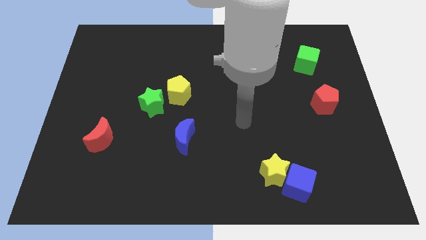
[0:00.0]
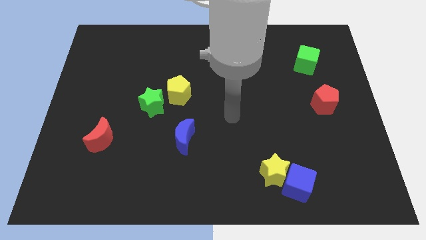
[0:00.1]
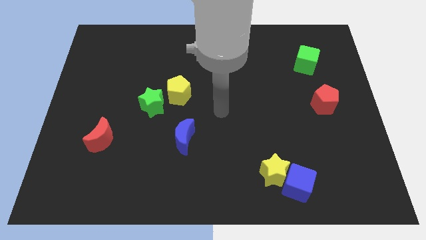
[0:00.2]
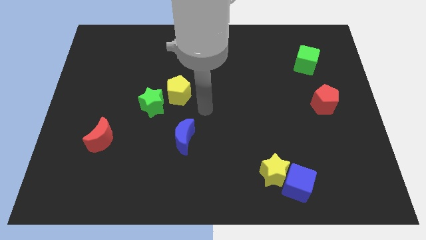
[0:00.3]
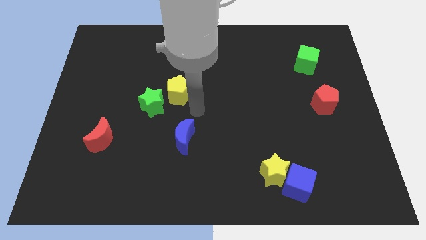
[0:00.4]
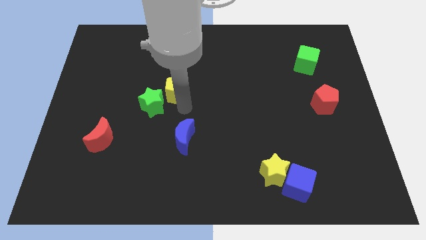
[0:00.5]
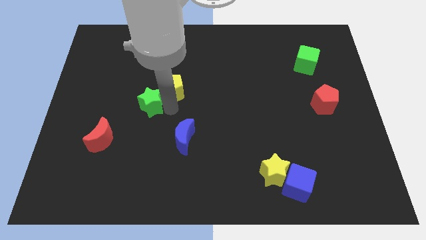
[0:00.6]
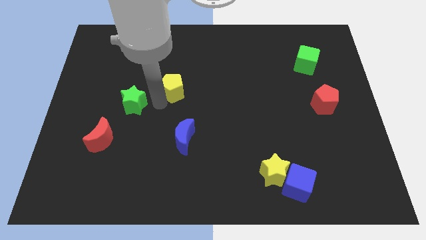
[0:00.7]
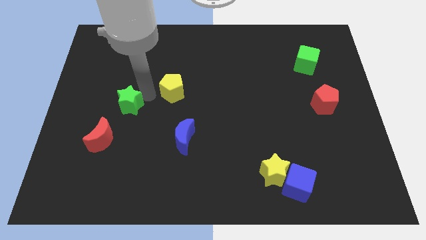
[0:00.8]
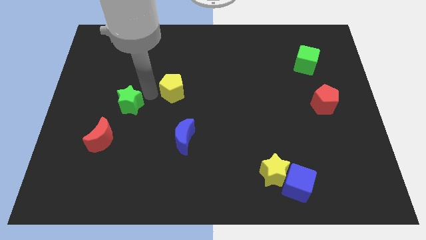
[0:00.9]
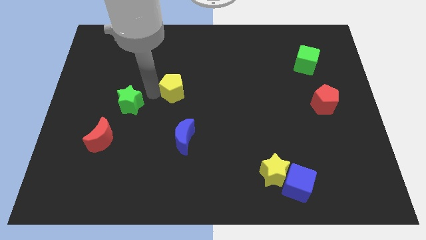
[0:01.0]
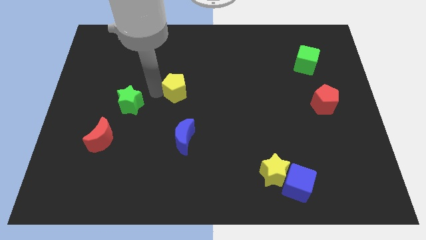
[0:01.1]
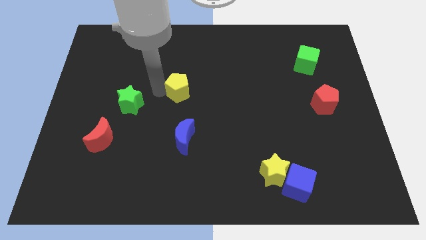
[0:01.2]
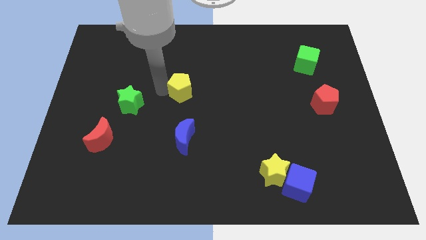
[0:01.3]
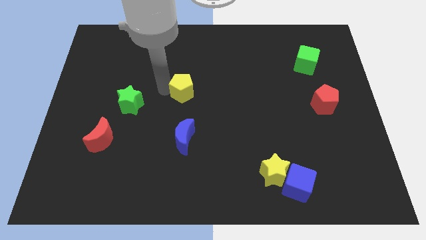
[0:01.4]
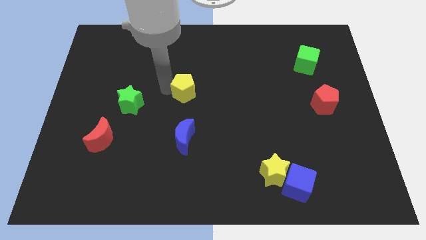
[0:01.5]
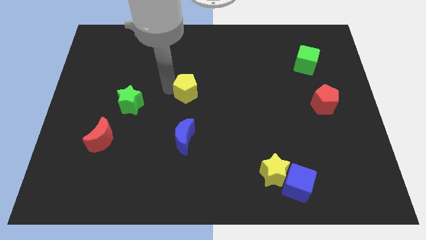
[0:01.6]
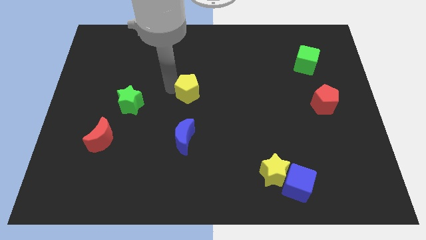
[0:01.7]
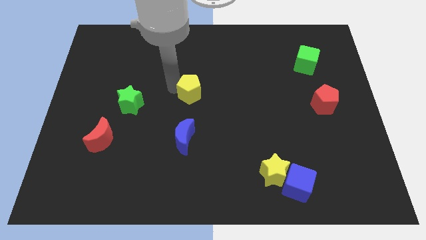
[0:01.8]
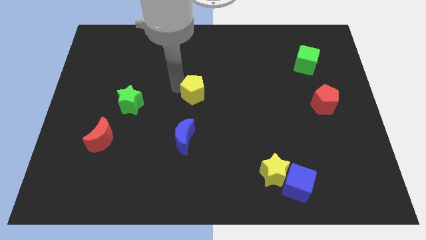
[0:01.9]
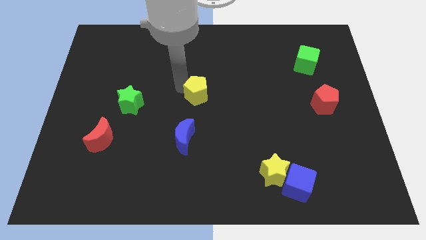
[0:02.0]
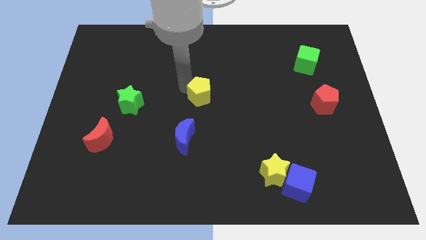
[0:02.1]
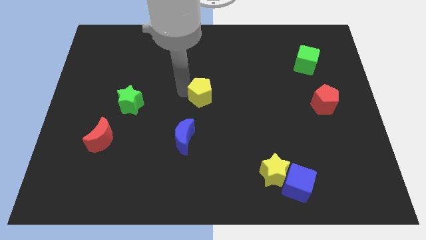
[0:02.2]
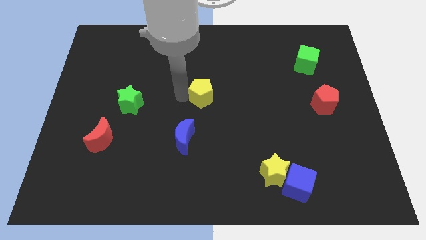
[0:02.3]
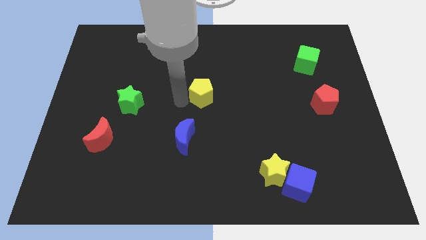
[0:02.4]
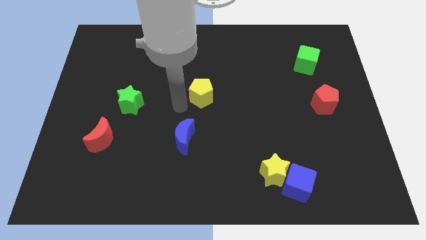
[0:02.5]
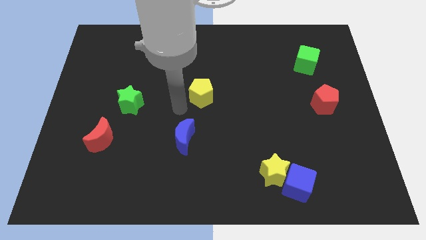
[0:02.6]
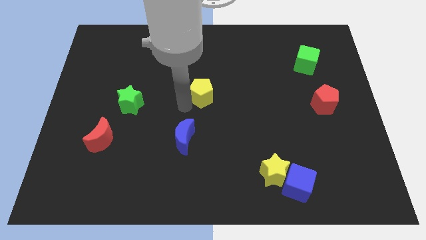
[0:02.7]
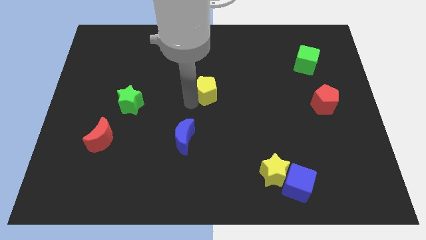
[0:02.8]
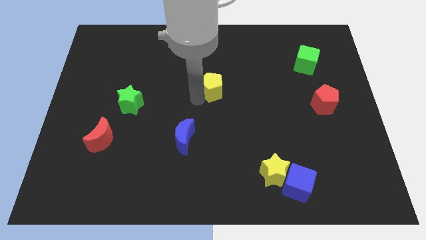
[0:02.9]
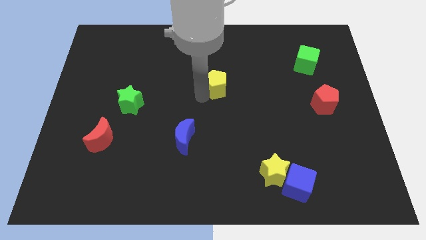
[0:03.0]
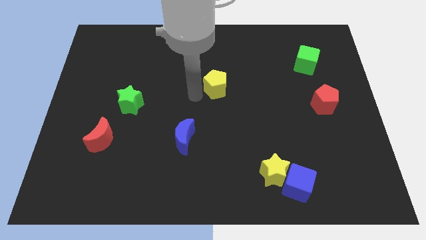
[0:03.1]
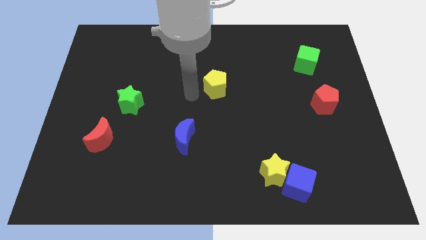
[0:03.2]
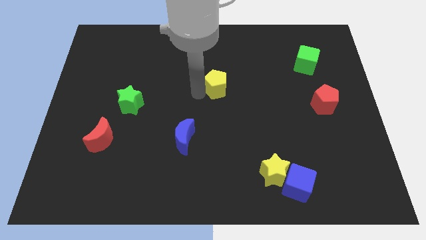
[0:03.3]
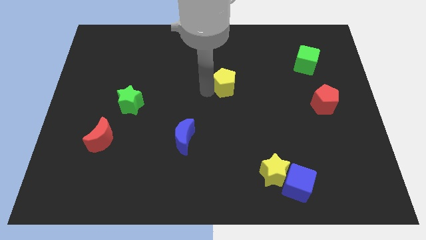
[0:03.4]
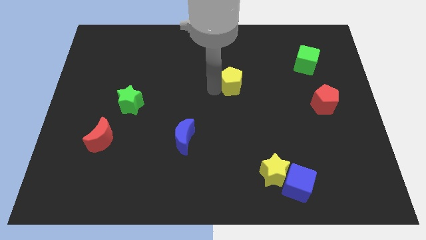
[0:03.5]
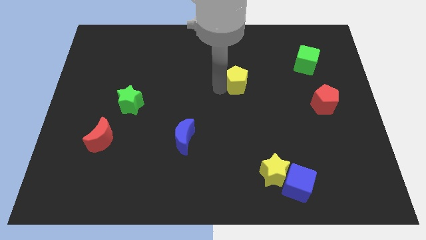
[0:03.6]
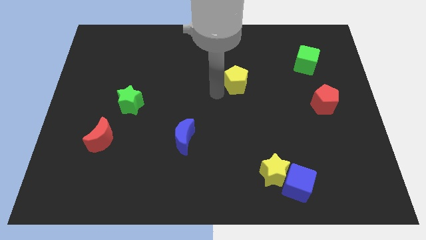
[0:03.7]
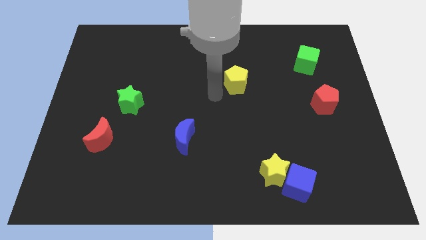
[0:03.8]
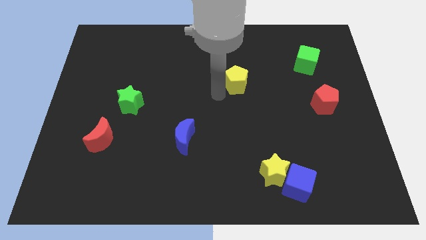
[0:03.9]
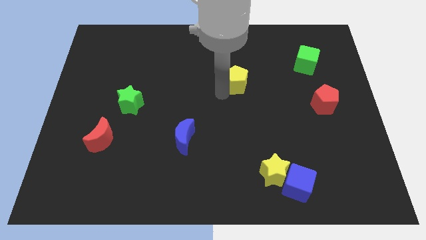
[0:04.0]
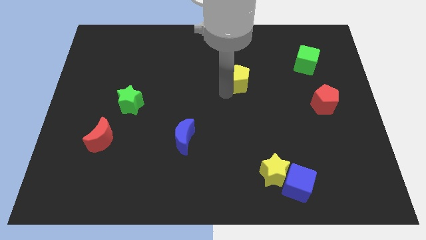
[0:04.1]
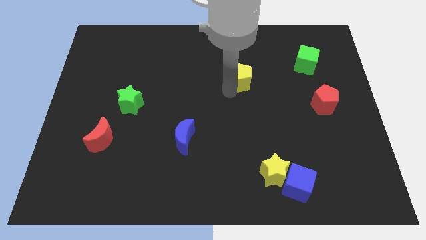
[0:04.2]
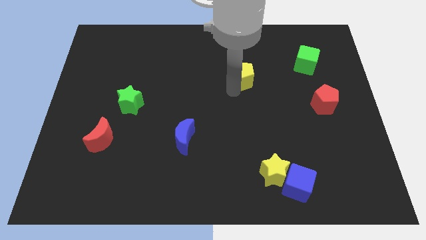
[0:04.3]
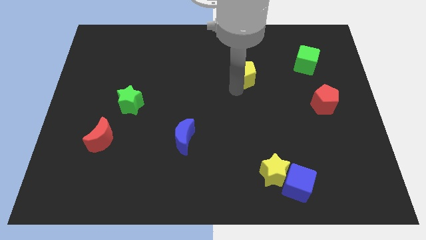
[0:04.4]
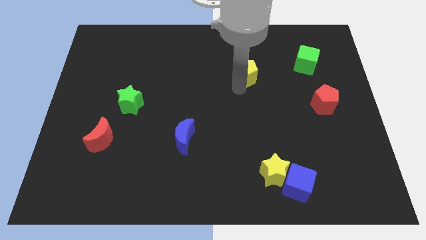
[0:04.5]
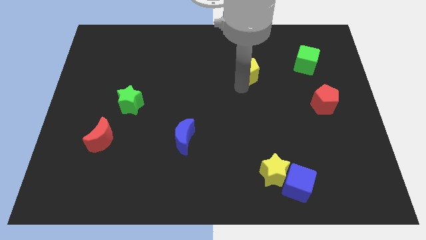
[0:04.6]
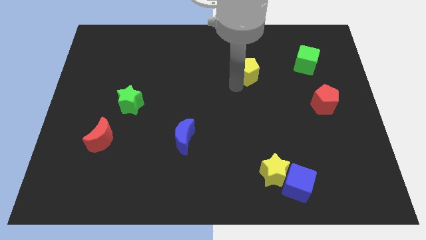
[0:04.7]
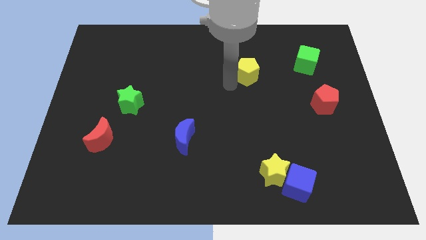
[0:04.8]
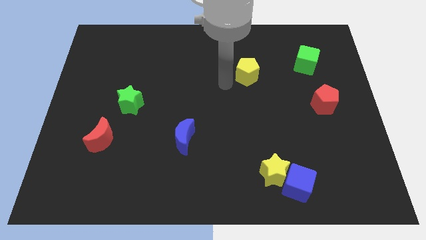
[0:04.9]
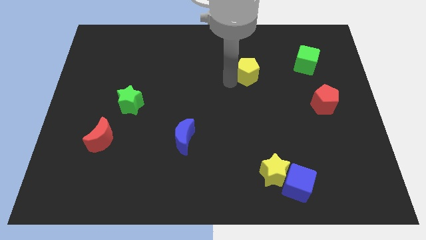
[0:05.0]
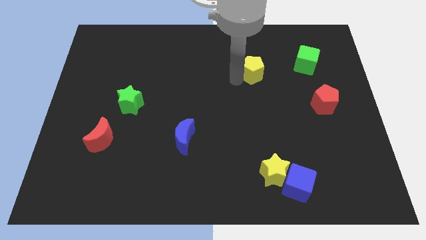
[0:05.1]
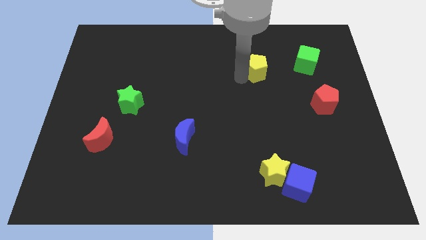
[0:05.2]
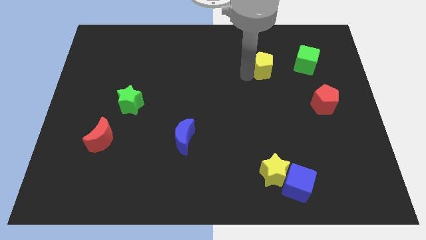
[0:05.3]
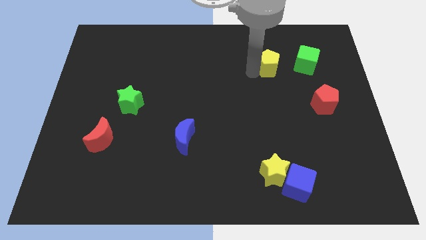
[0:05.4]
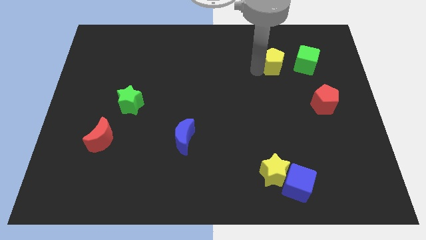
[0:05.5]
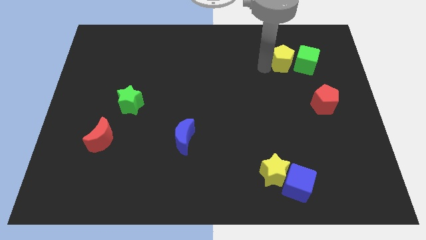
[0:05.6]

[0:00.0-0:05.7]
slide the yellow pentagon to the green cube

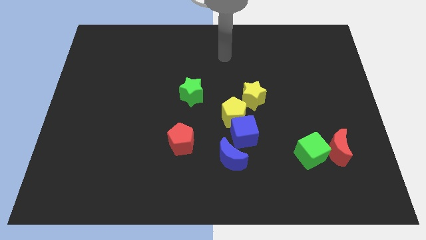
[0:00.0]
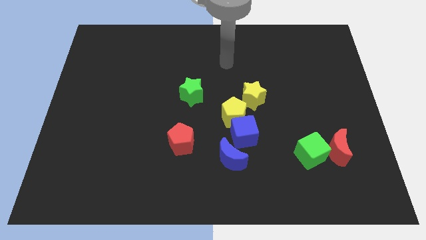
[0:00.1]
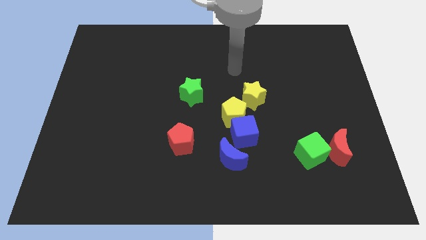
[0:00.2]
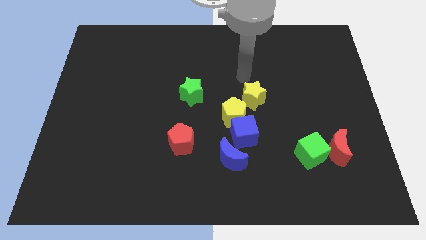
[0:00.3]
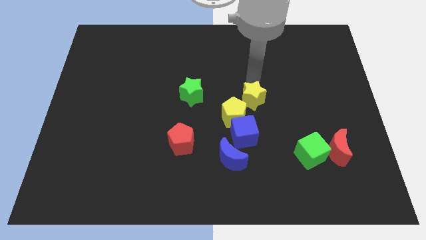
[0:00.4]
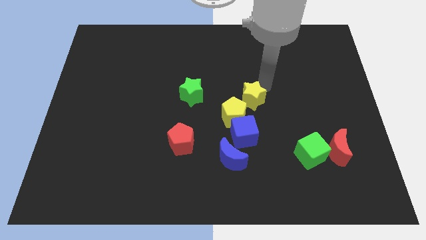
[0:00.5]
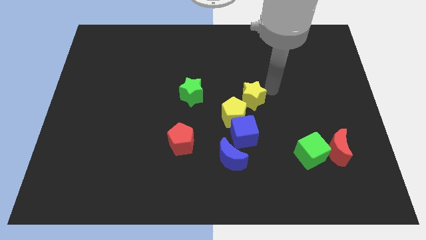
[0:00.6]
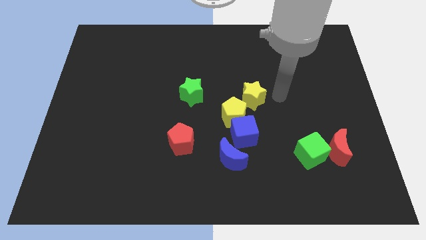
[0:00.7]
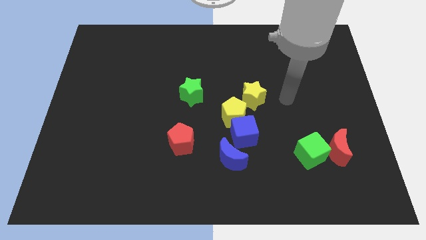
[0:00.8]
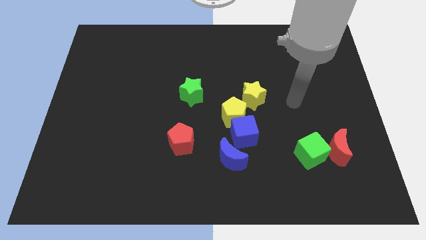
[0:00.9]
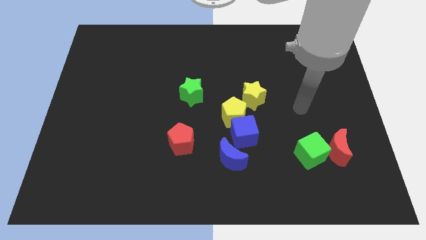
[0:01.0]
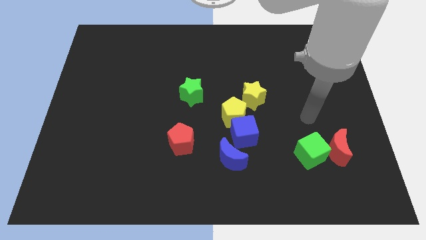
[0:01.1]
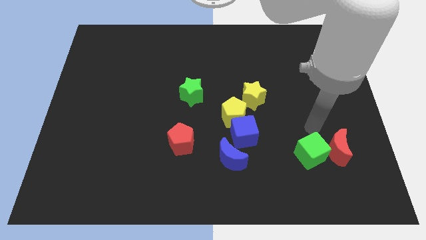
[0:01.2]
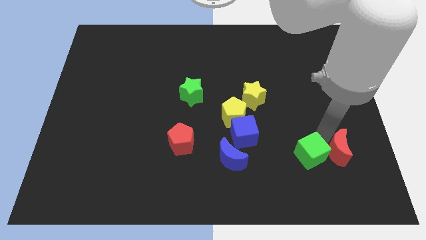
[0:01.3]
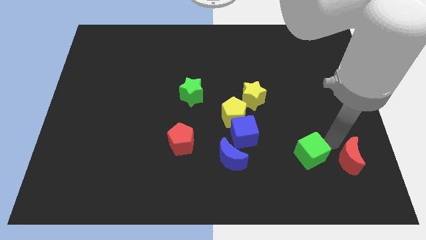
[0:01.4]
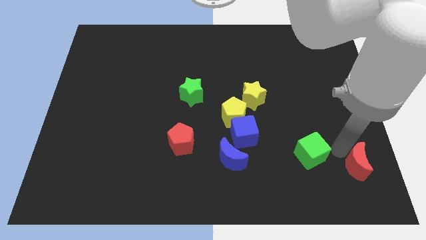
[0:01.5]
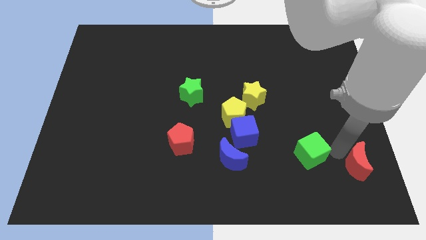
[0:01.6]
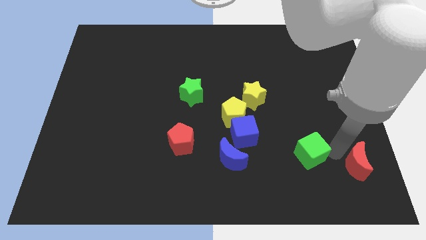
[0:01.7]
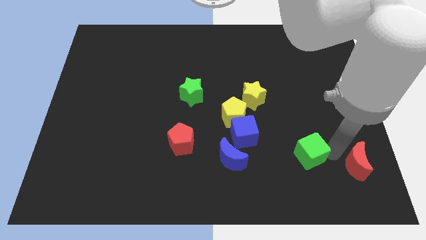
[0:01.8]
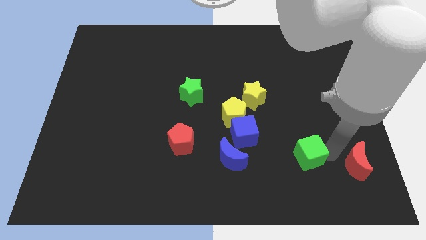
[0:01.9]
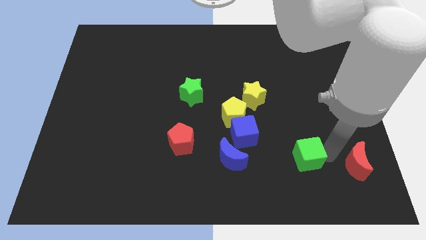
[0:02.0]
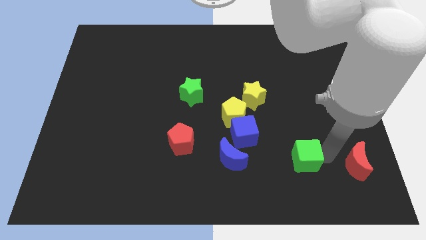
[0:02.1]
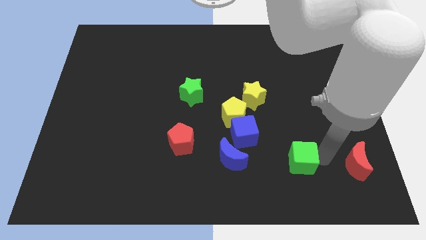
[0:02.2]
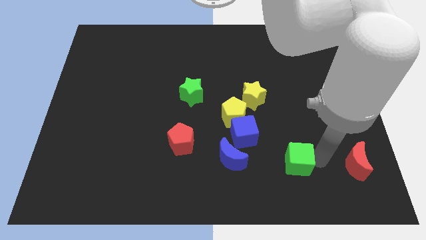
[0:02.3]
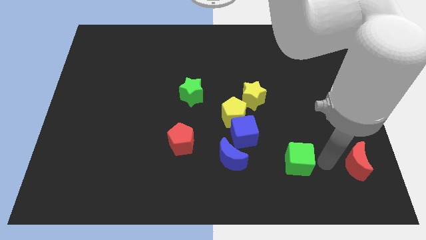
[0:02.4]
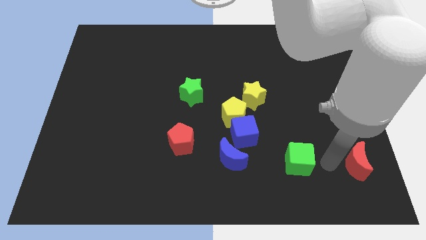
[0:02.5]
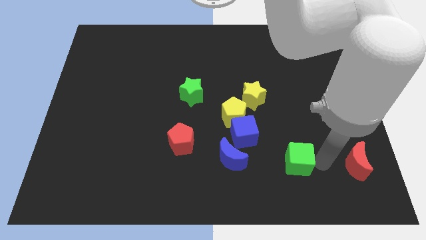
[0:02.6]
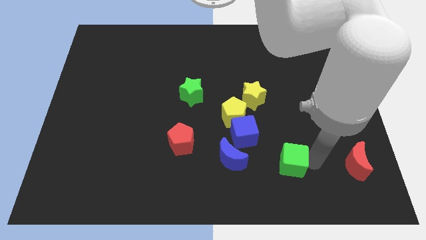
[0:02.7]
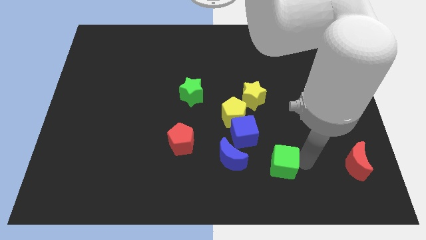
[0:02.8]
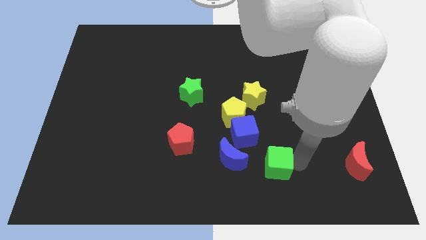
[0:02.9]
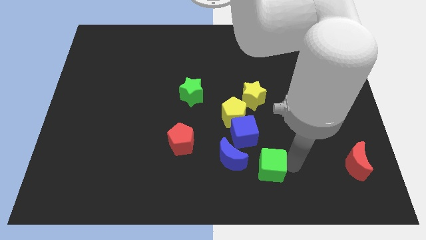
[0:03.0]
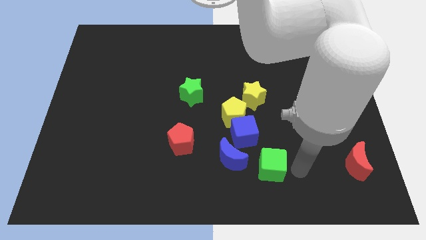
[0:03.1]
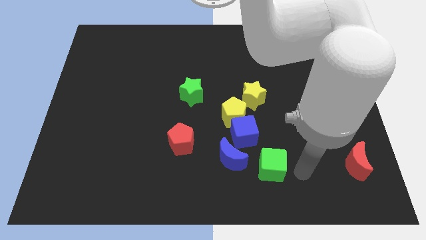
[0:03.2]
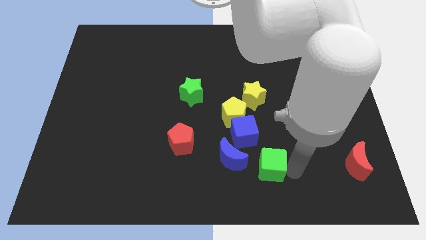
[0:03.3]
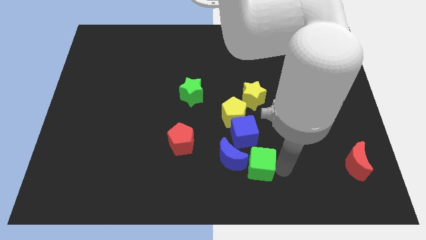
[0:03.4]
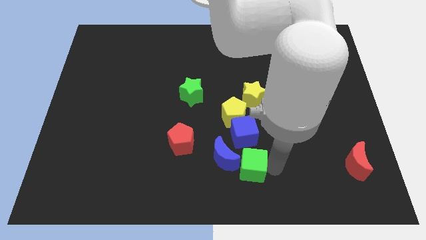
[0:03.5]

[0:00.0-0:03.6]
put the green cube towards the blue moon
